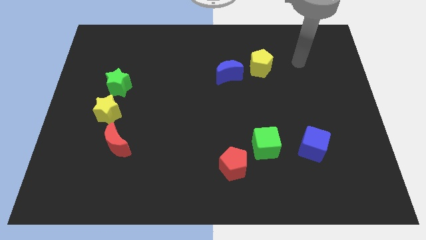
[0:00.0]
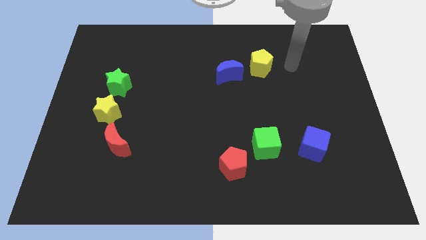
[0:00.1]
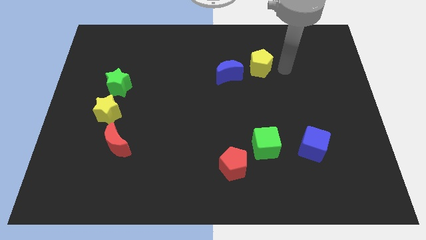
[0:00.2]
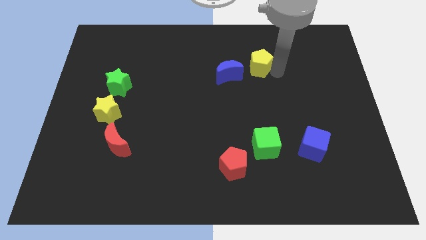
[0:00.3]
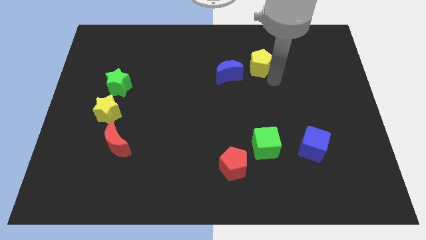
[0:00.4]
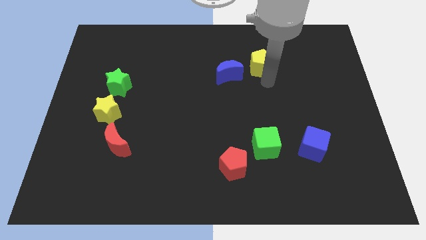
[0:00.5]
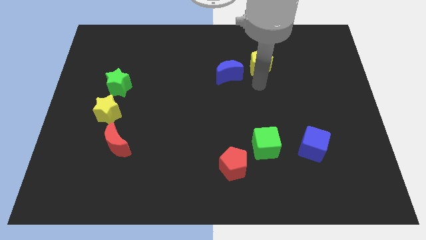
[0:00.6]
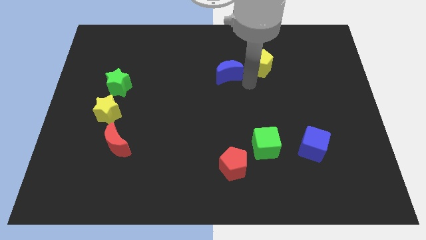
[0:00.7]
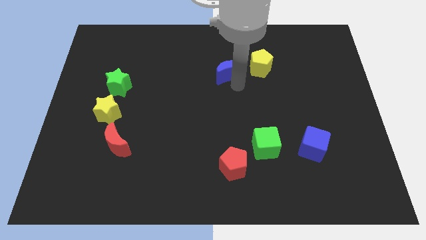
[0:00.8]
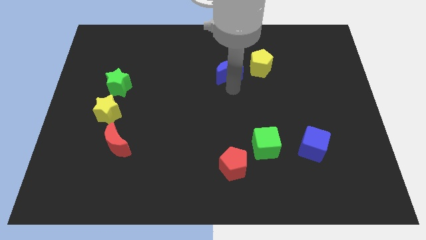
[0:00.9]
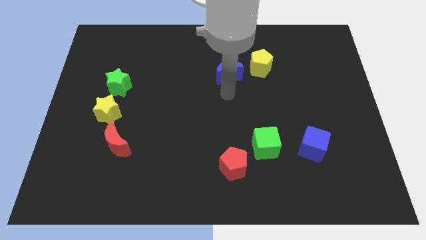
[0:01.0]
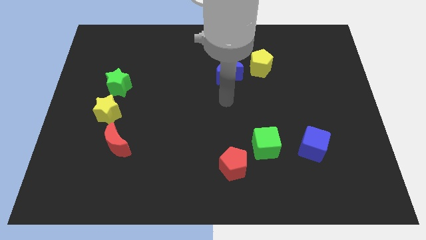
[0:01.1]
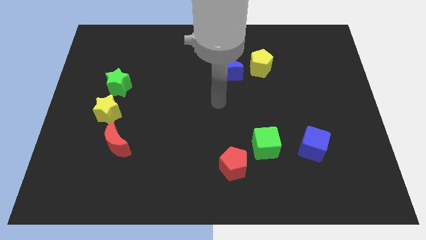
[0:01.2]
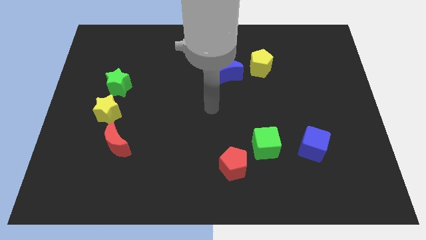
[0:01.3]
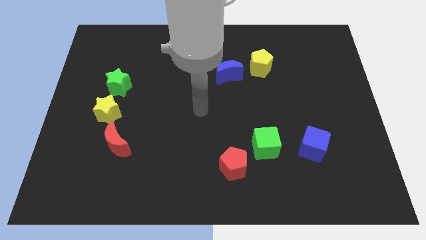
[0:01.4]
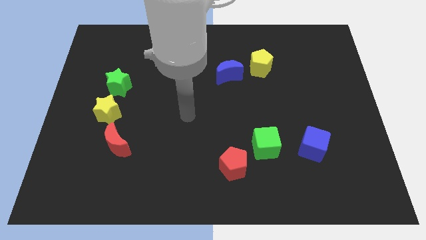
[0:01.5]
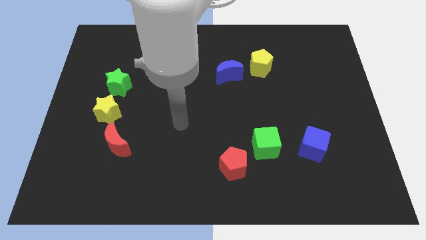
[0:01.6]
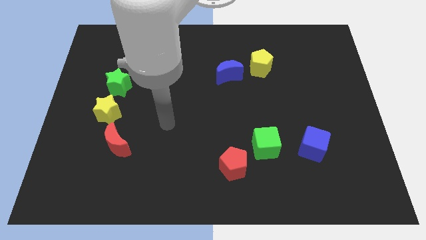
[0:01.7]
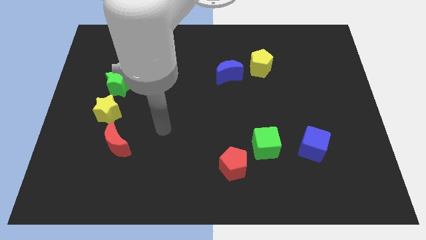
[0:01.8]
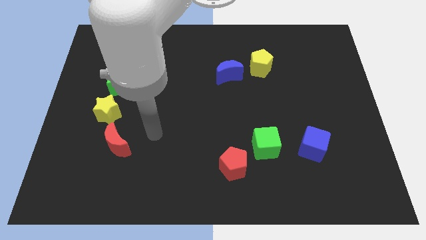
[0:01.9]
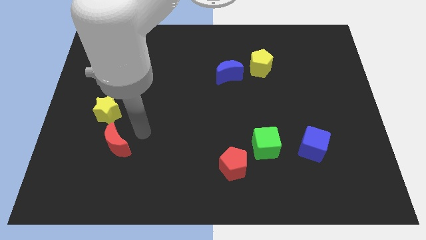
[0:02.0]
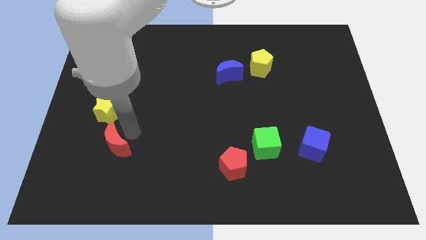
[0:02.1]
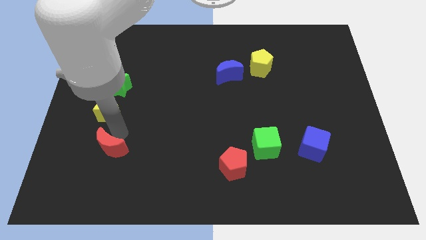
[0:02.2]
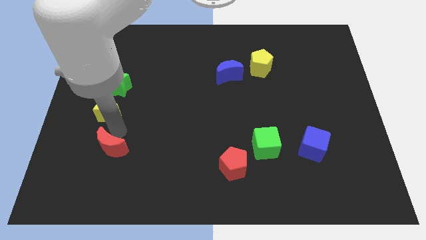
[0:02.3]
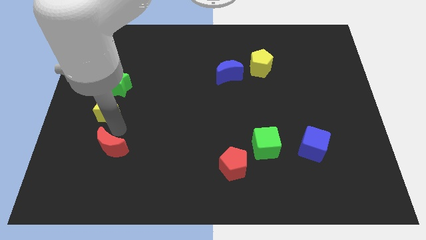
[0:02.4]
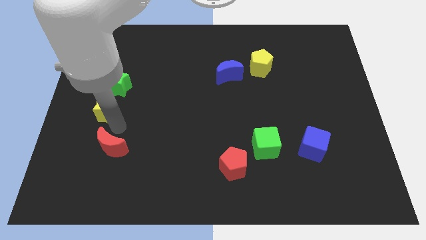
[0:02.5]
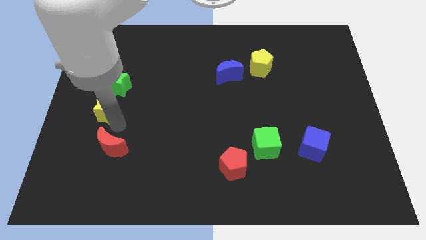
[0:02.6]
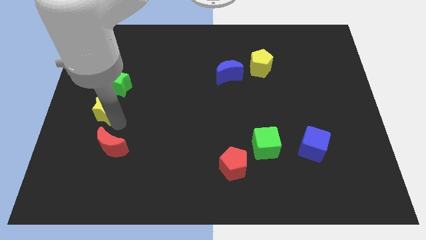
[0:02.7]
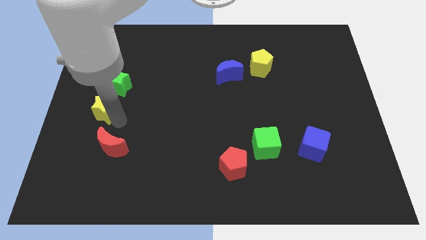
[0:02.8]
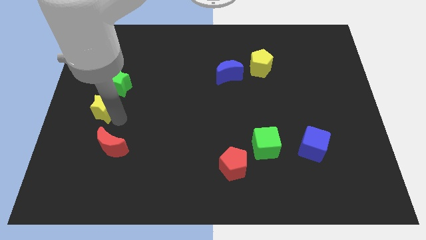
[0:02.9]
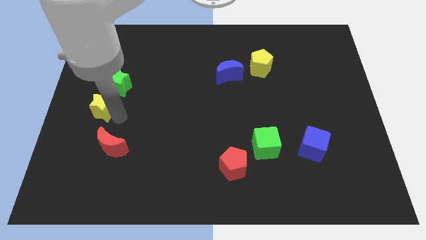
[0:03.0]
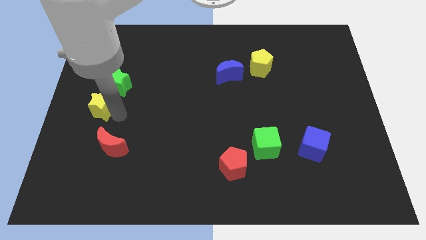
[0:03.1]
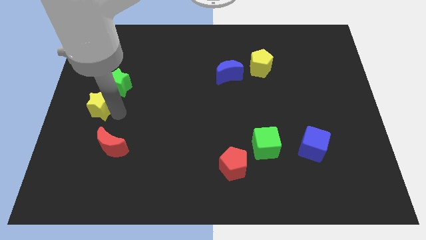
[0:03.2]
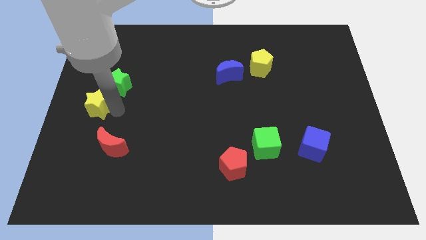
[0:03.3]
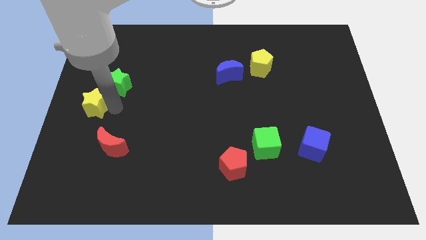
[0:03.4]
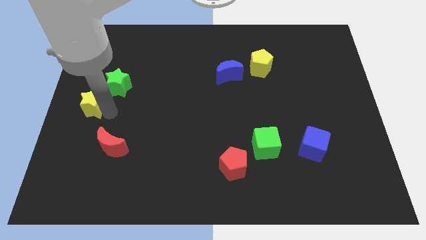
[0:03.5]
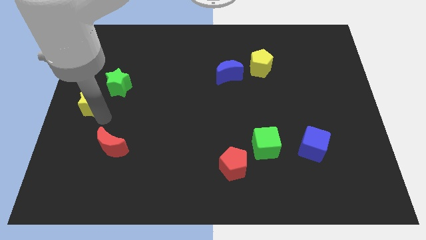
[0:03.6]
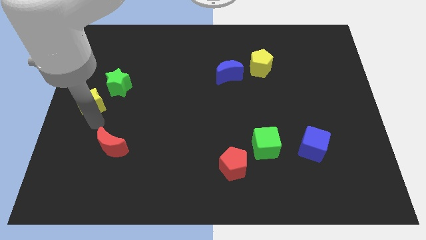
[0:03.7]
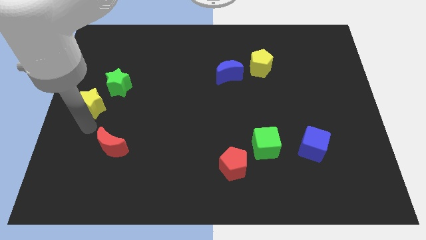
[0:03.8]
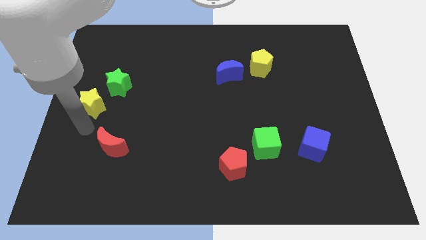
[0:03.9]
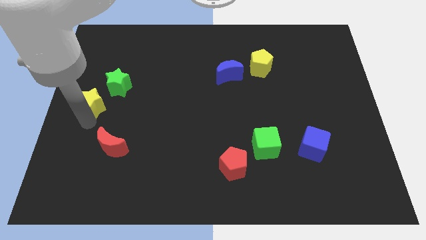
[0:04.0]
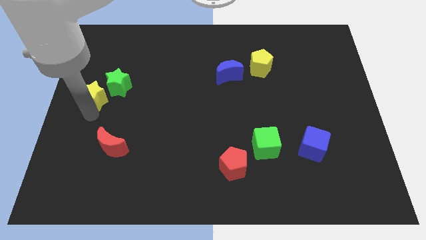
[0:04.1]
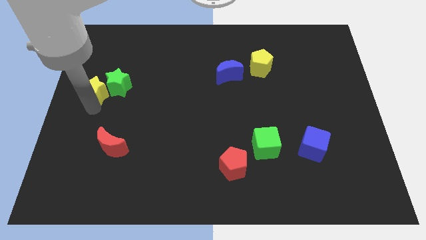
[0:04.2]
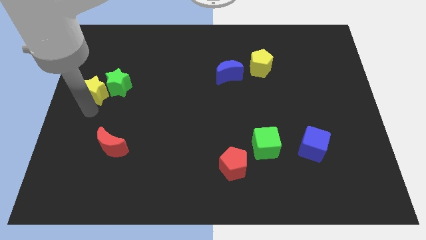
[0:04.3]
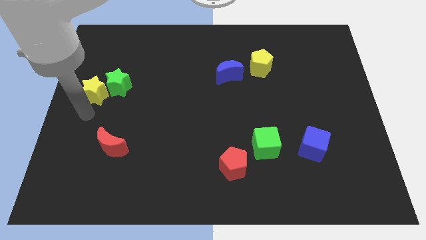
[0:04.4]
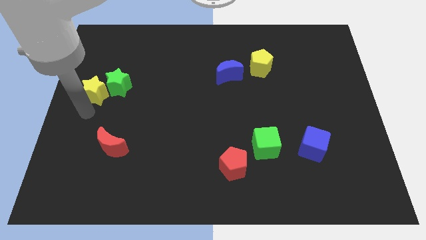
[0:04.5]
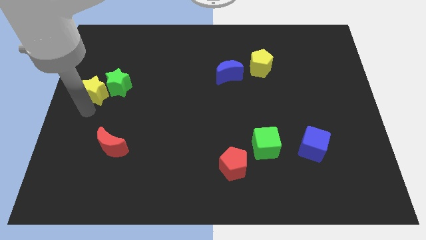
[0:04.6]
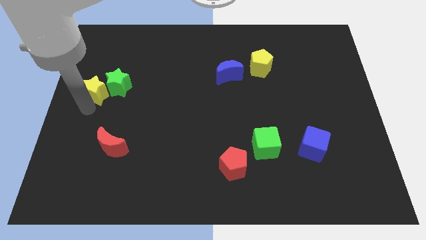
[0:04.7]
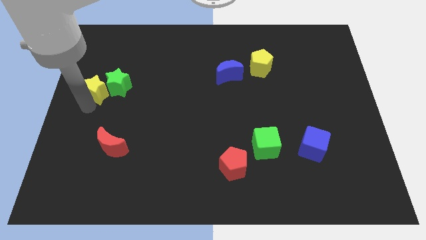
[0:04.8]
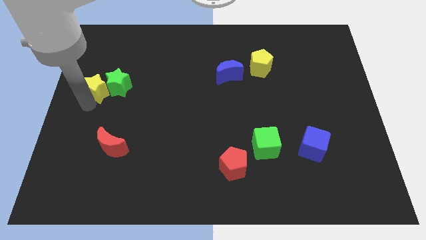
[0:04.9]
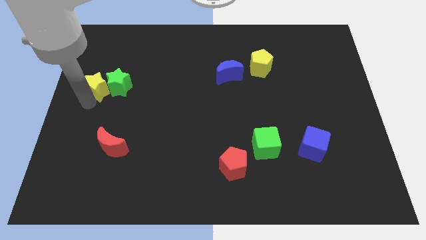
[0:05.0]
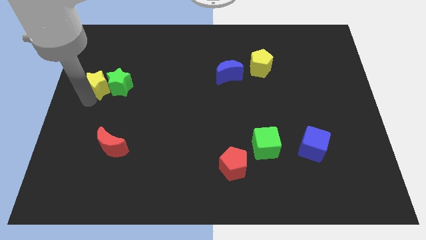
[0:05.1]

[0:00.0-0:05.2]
slightly push the yellow star up

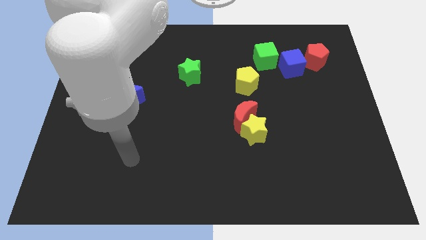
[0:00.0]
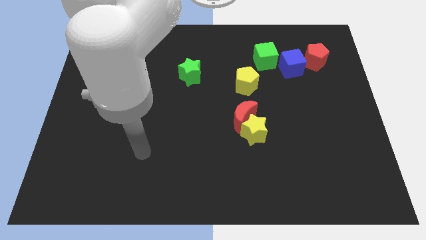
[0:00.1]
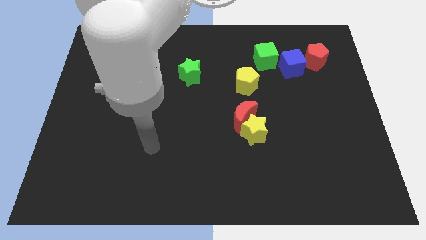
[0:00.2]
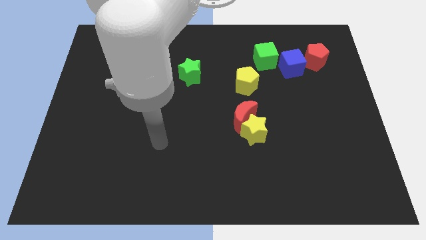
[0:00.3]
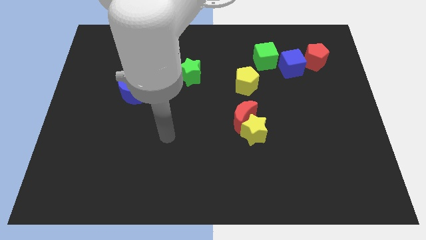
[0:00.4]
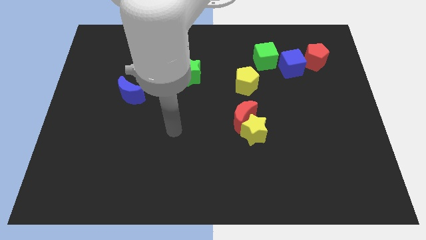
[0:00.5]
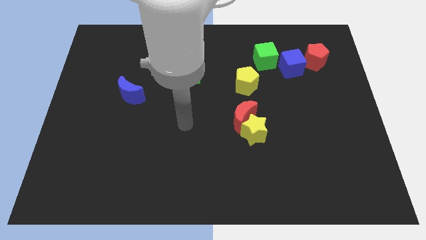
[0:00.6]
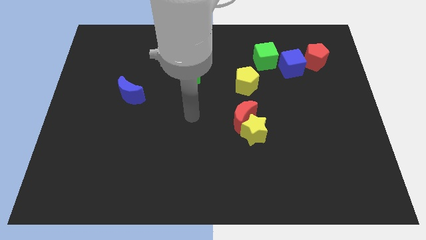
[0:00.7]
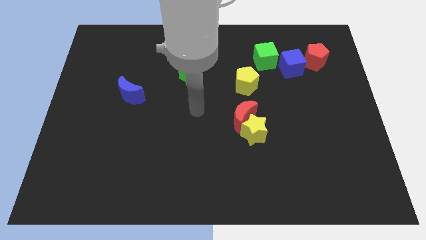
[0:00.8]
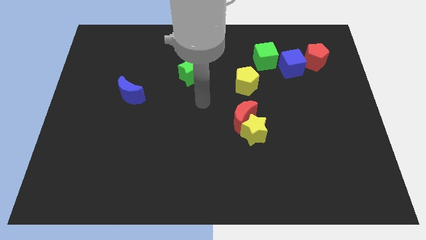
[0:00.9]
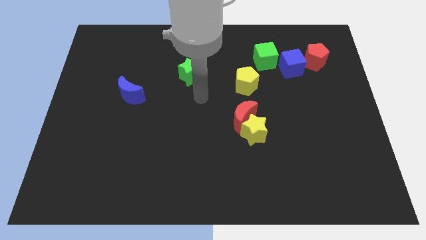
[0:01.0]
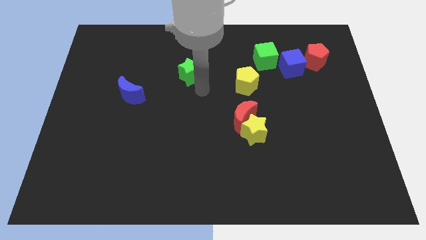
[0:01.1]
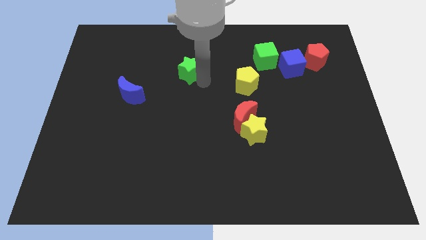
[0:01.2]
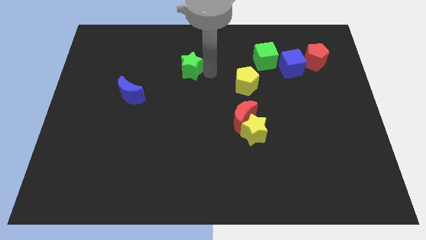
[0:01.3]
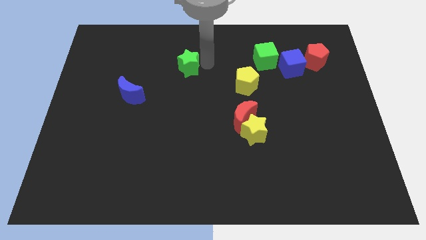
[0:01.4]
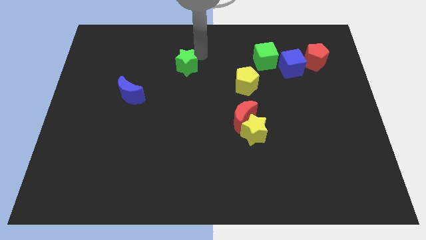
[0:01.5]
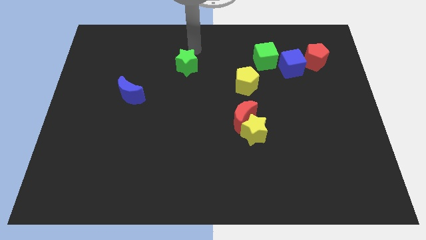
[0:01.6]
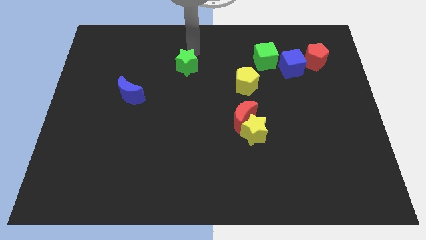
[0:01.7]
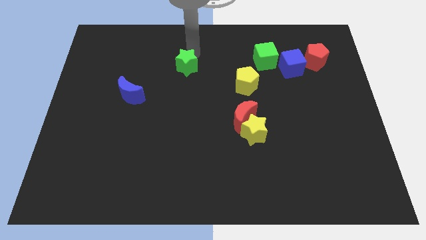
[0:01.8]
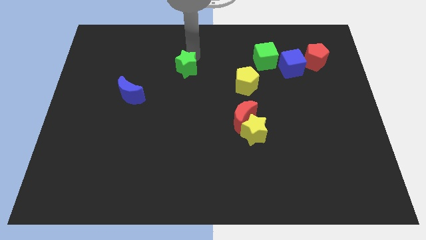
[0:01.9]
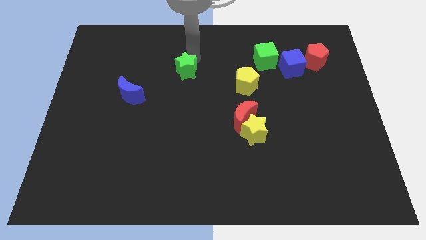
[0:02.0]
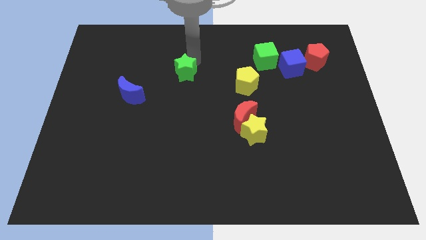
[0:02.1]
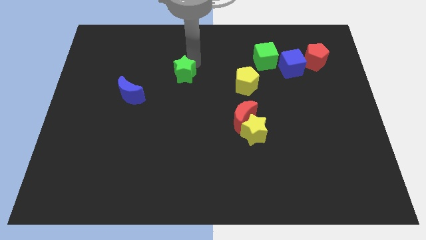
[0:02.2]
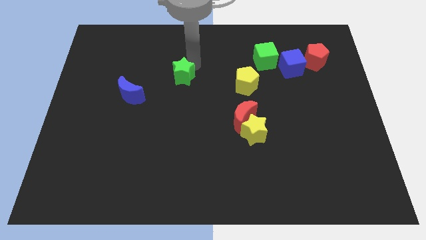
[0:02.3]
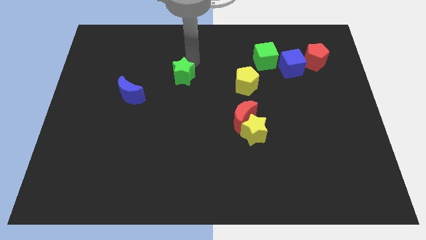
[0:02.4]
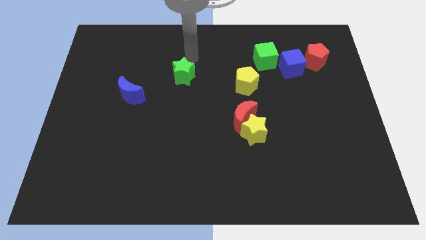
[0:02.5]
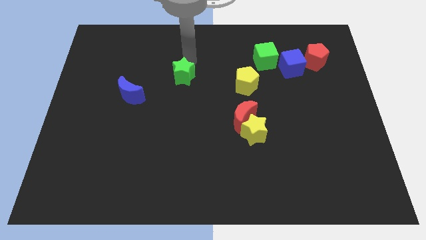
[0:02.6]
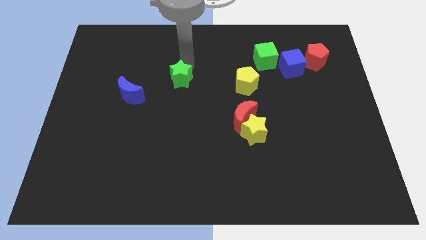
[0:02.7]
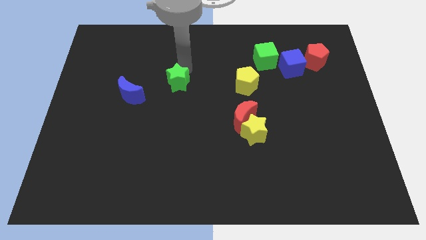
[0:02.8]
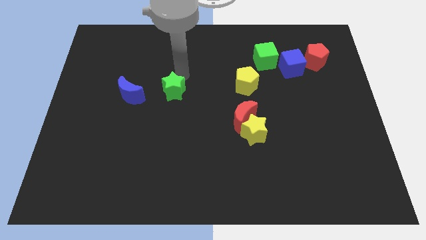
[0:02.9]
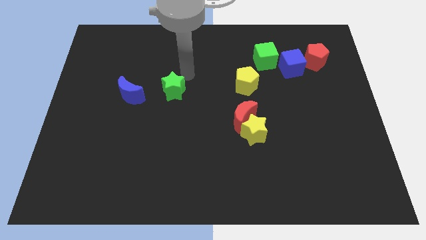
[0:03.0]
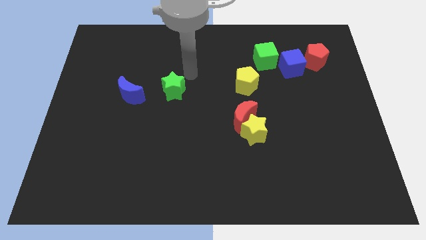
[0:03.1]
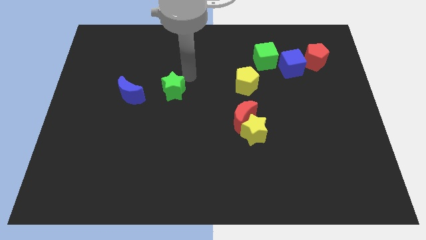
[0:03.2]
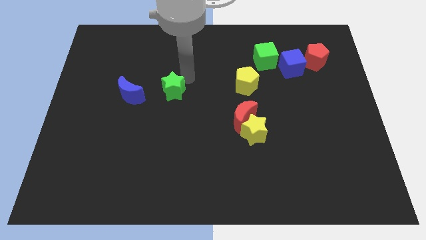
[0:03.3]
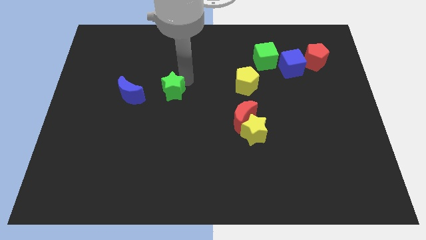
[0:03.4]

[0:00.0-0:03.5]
move the green star a bit diagonally downwards and left
